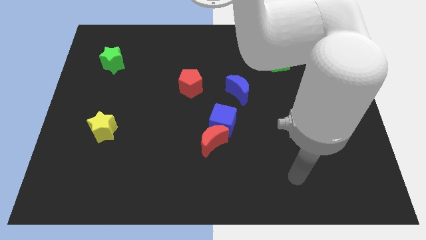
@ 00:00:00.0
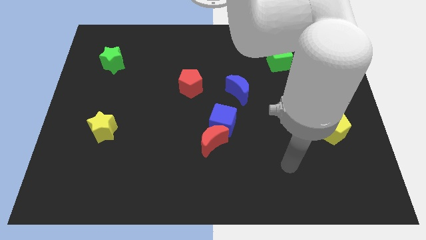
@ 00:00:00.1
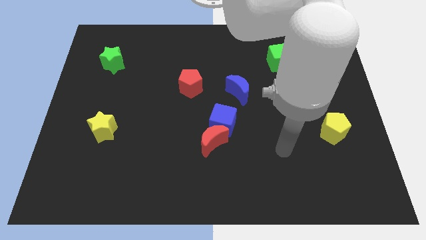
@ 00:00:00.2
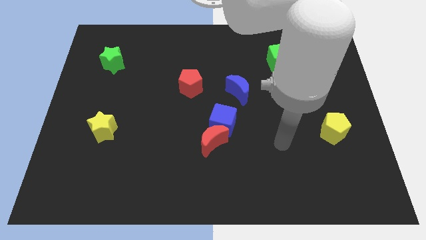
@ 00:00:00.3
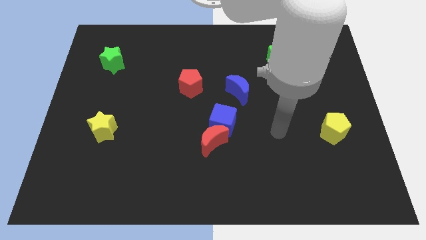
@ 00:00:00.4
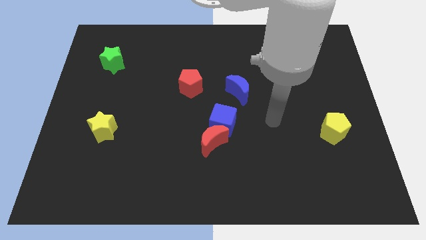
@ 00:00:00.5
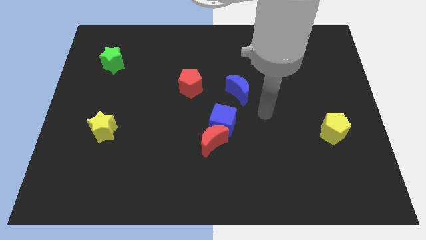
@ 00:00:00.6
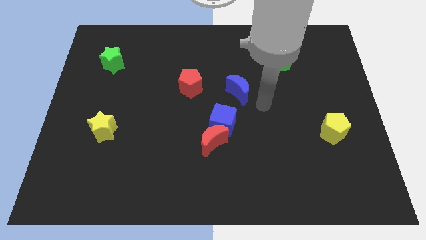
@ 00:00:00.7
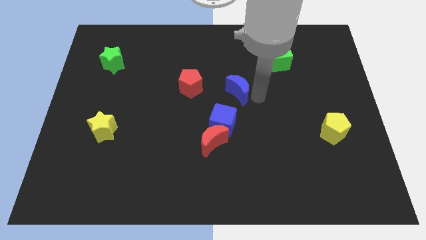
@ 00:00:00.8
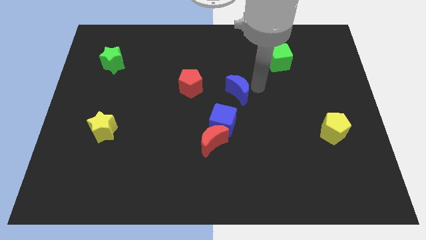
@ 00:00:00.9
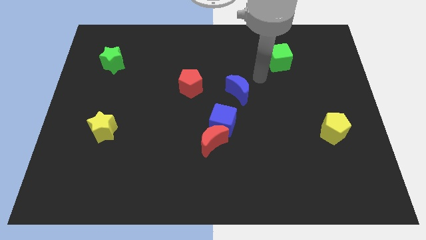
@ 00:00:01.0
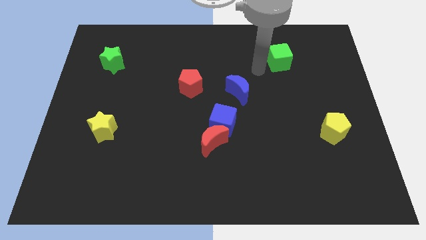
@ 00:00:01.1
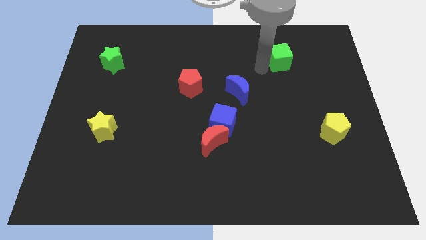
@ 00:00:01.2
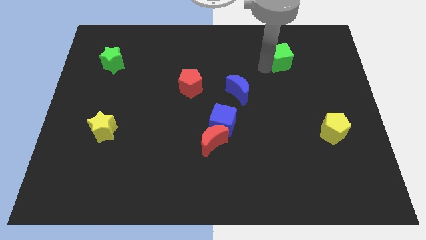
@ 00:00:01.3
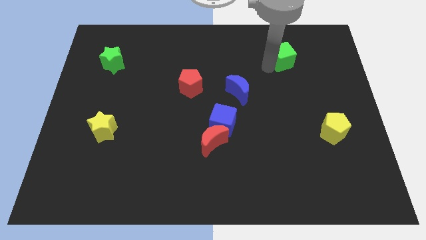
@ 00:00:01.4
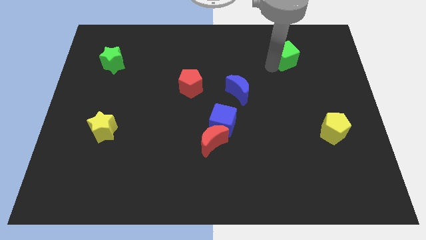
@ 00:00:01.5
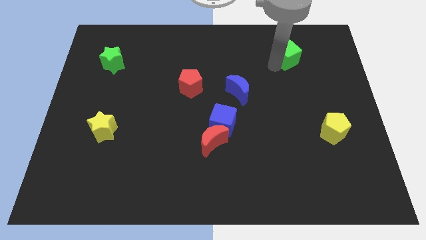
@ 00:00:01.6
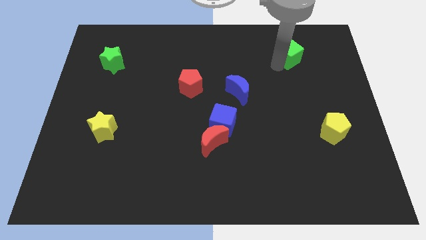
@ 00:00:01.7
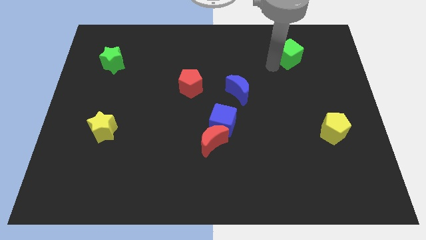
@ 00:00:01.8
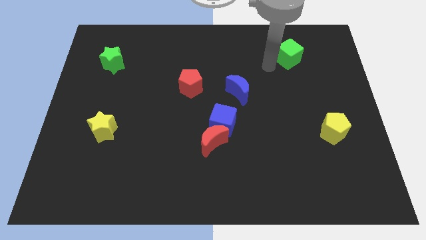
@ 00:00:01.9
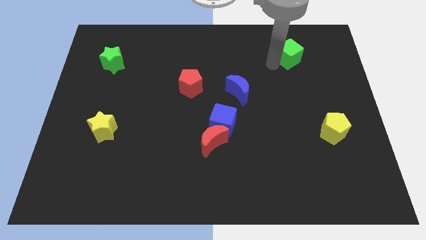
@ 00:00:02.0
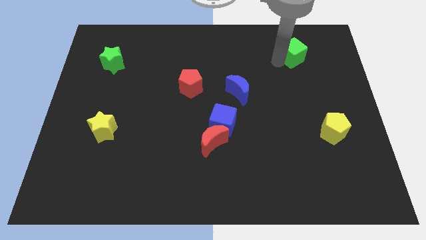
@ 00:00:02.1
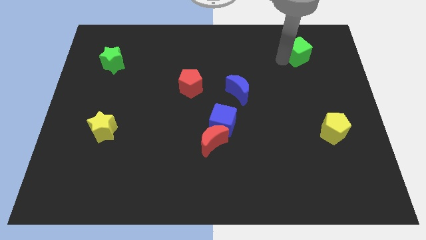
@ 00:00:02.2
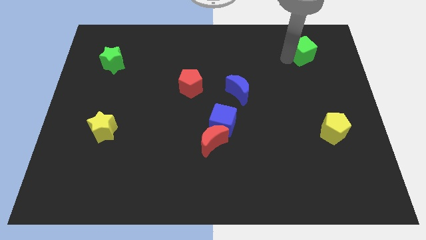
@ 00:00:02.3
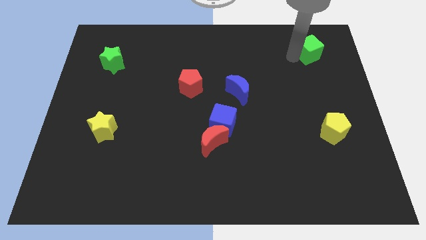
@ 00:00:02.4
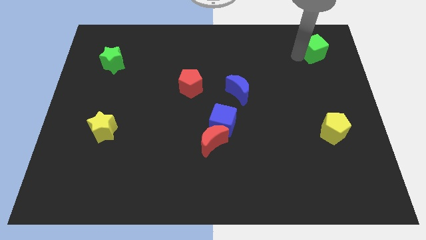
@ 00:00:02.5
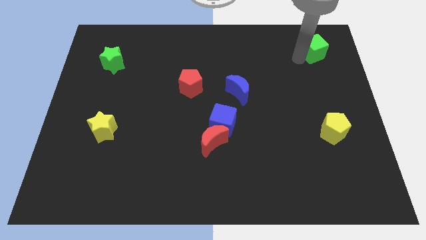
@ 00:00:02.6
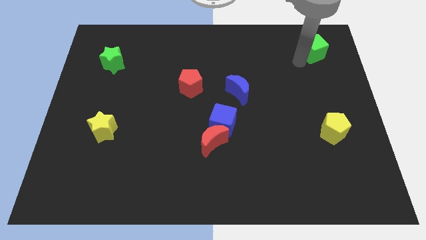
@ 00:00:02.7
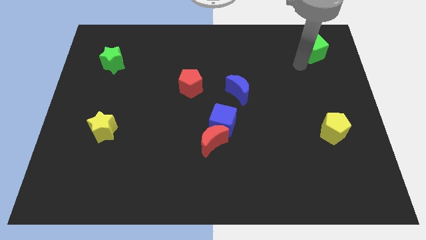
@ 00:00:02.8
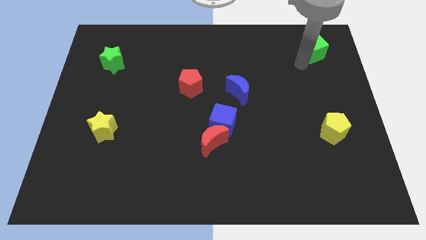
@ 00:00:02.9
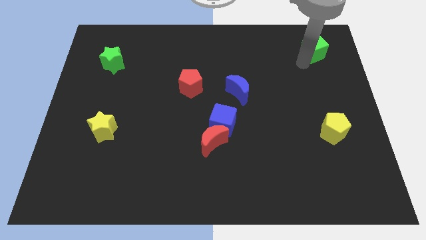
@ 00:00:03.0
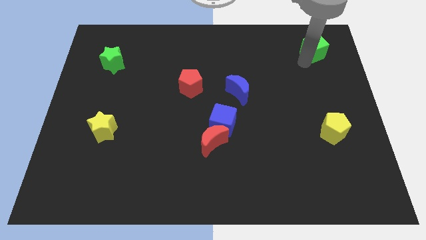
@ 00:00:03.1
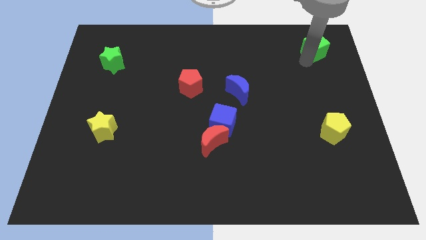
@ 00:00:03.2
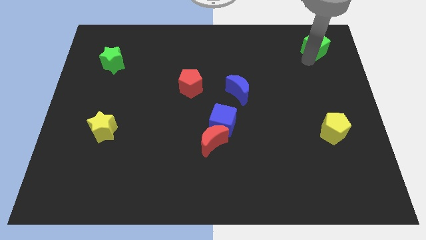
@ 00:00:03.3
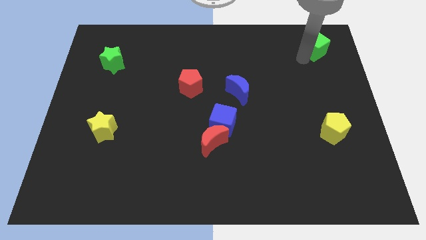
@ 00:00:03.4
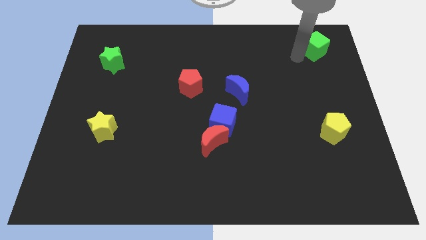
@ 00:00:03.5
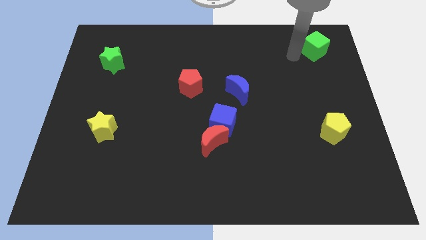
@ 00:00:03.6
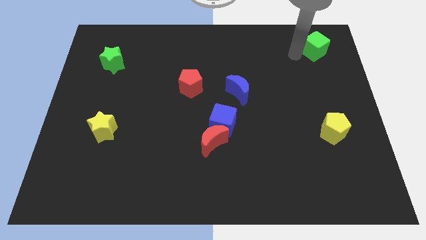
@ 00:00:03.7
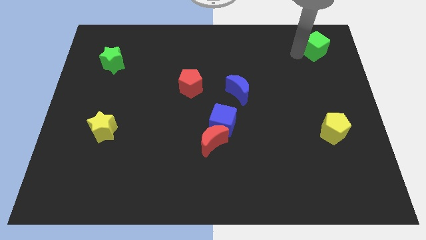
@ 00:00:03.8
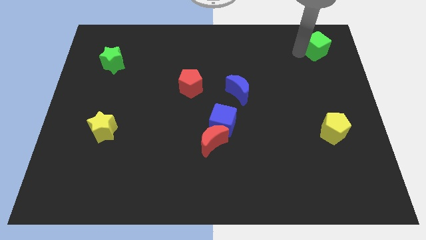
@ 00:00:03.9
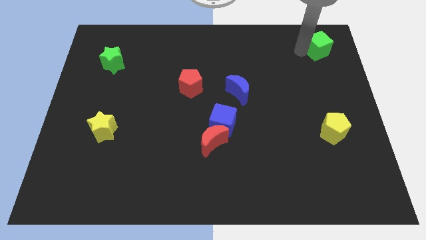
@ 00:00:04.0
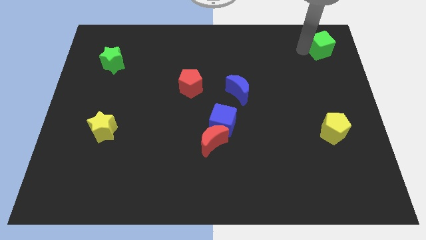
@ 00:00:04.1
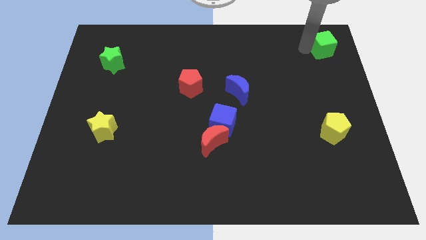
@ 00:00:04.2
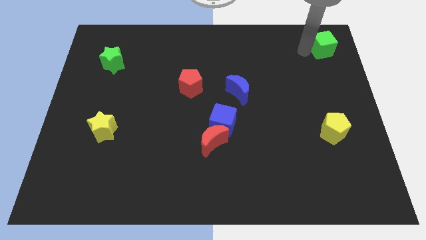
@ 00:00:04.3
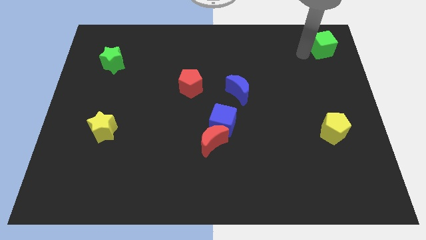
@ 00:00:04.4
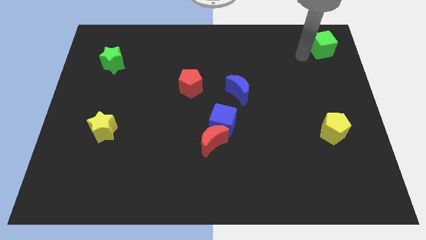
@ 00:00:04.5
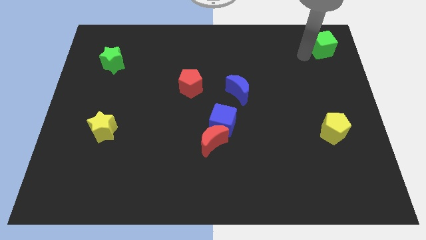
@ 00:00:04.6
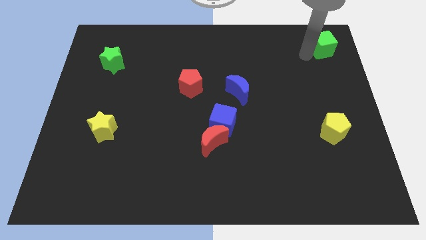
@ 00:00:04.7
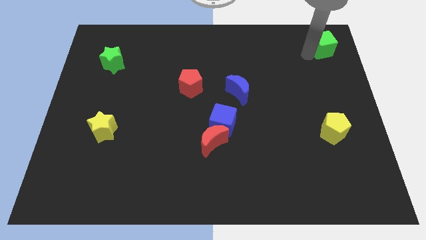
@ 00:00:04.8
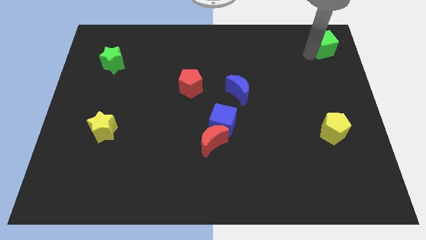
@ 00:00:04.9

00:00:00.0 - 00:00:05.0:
put the green cube to the upper right corner
